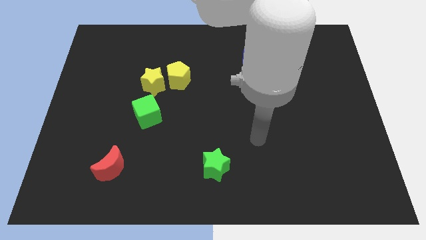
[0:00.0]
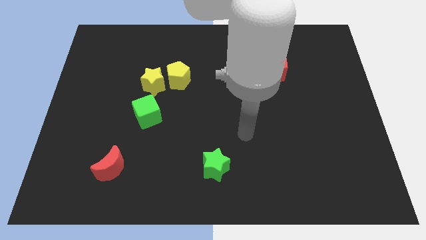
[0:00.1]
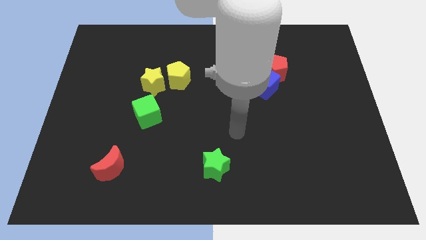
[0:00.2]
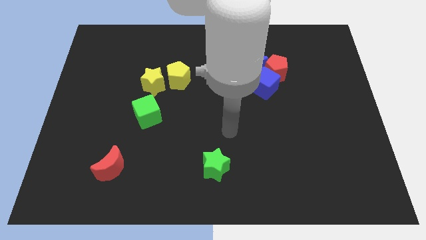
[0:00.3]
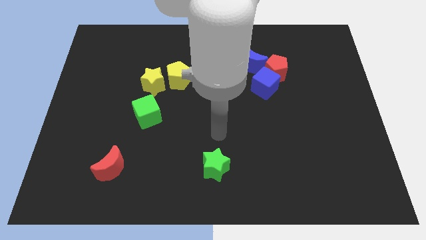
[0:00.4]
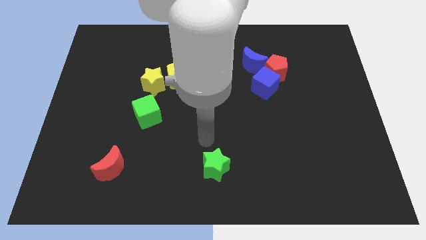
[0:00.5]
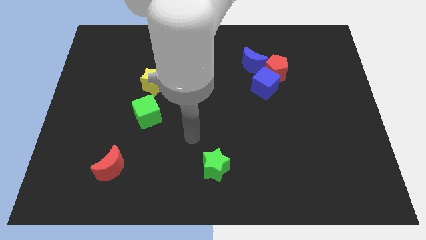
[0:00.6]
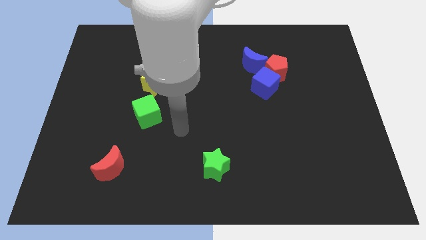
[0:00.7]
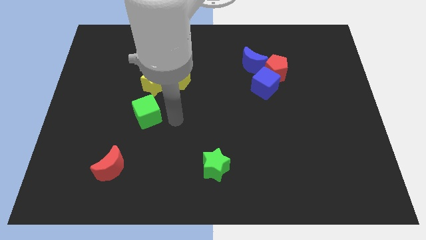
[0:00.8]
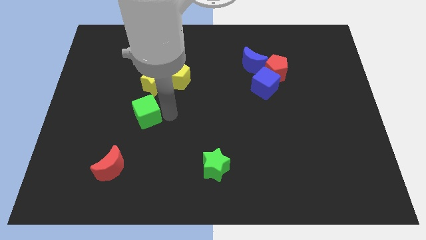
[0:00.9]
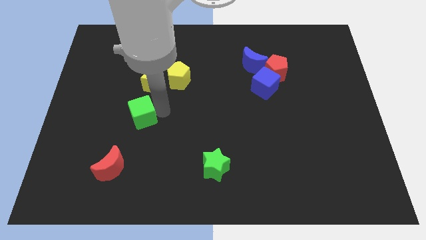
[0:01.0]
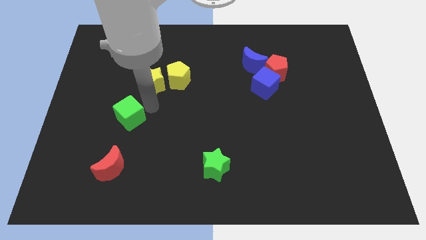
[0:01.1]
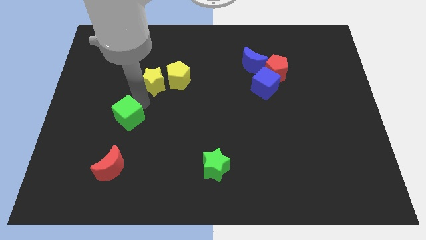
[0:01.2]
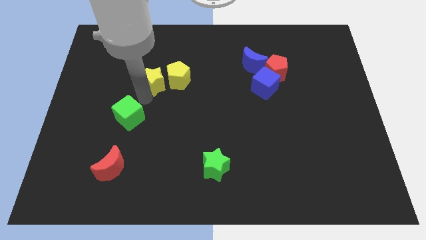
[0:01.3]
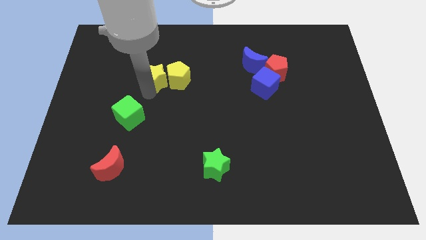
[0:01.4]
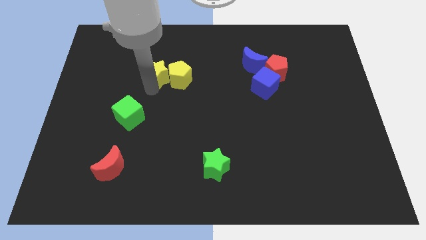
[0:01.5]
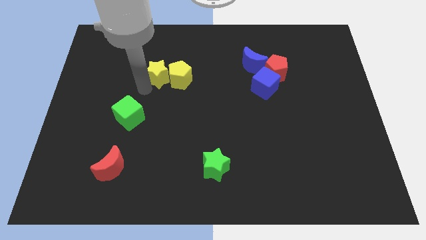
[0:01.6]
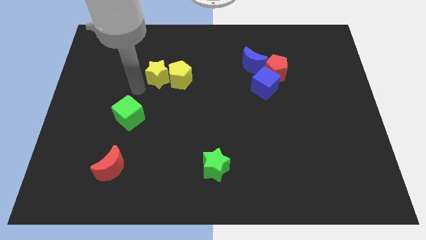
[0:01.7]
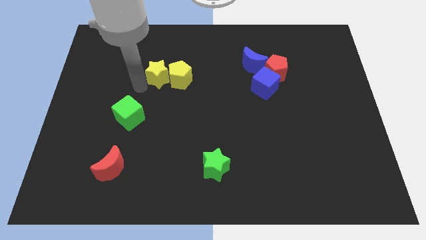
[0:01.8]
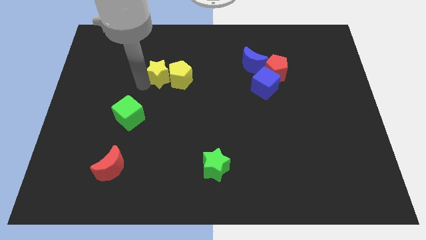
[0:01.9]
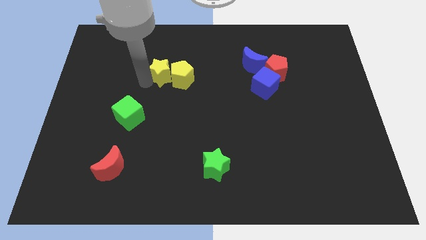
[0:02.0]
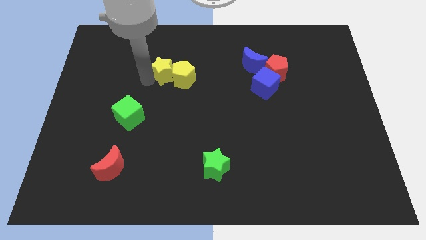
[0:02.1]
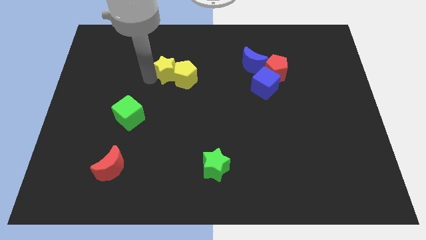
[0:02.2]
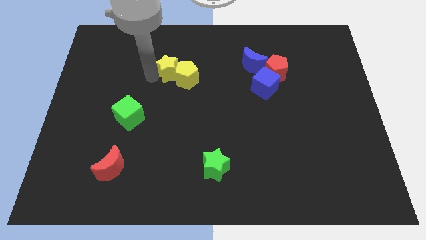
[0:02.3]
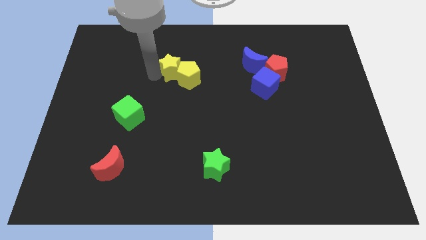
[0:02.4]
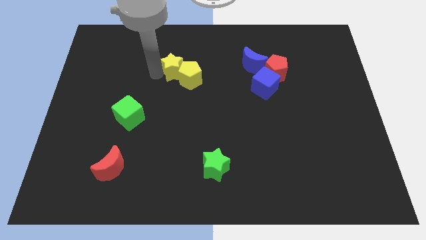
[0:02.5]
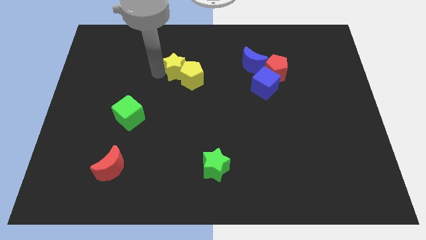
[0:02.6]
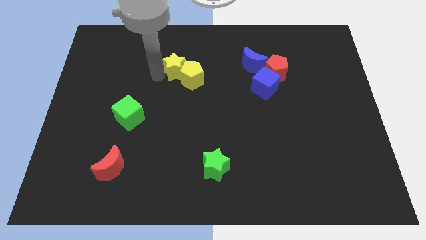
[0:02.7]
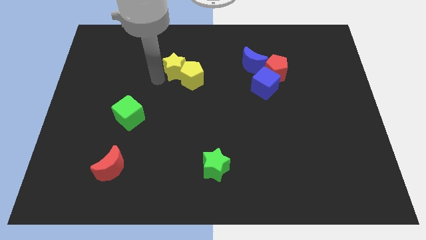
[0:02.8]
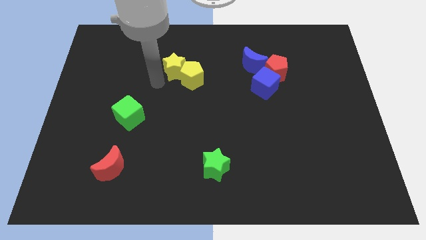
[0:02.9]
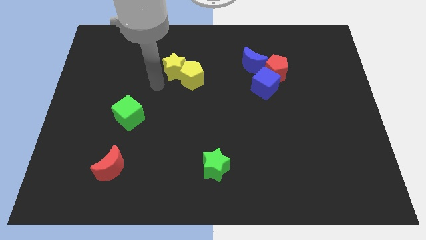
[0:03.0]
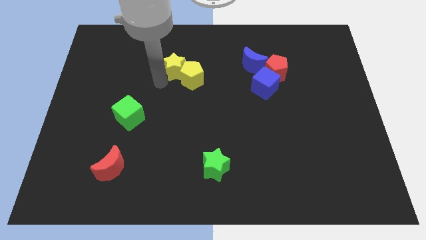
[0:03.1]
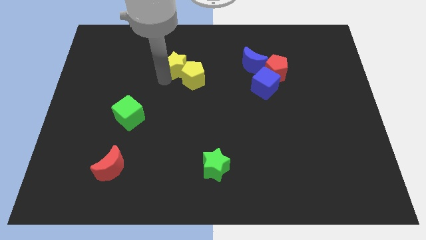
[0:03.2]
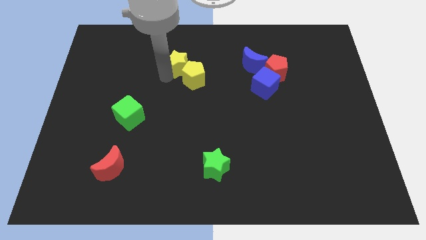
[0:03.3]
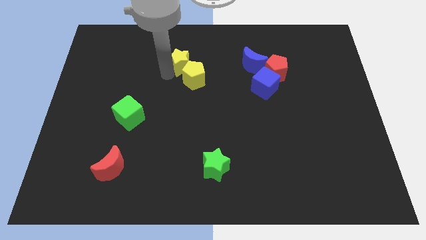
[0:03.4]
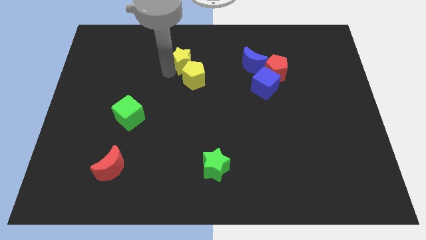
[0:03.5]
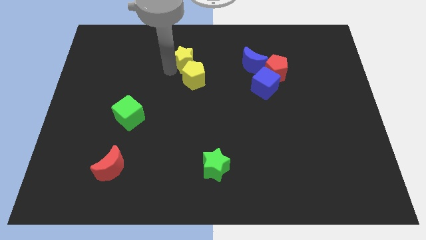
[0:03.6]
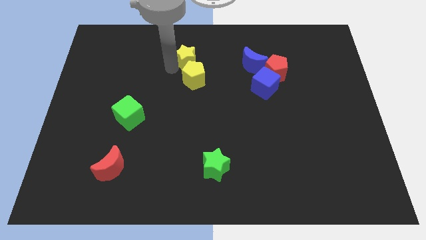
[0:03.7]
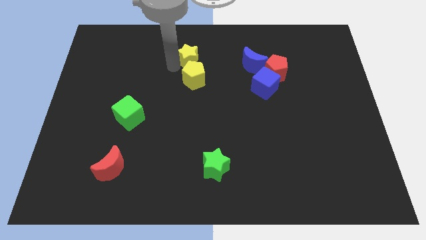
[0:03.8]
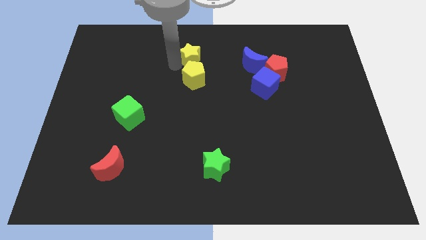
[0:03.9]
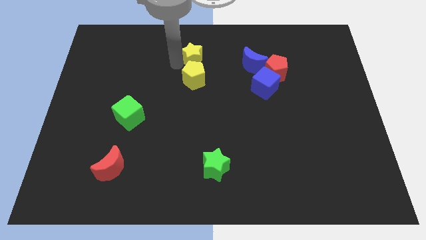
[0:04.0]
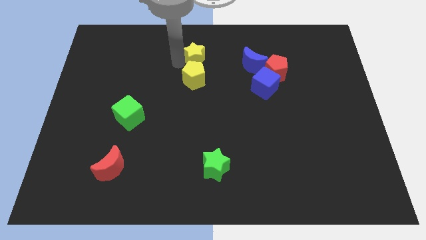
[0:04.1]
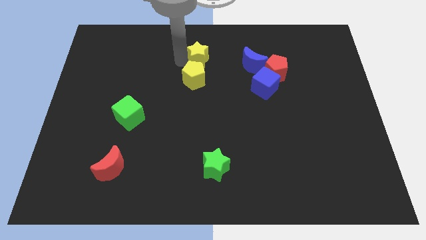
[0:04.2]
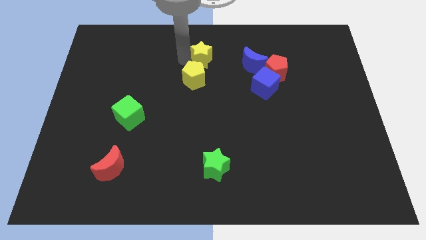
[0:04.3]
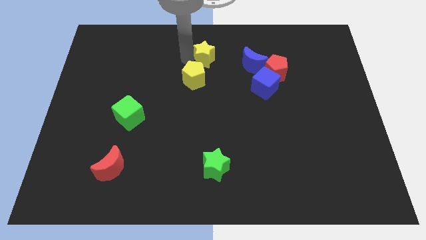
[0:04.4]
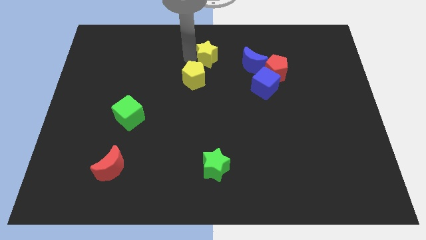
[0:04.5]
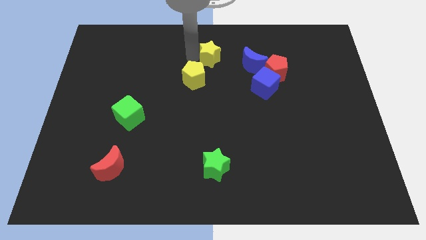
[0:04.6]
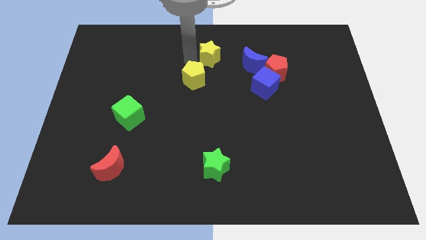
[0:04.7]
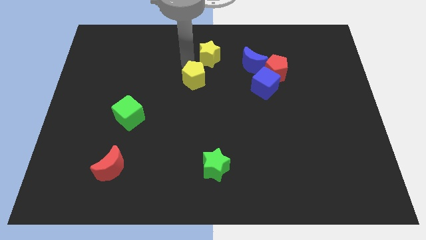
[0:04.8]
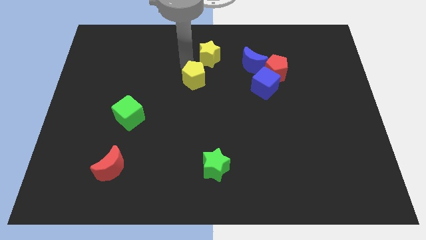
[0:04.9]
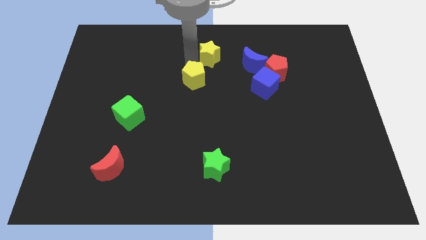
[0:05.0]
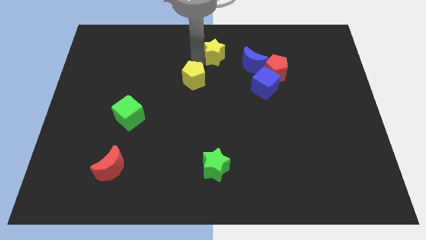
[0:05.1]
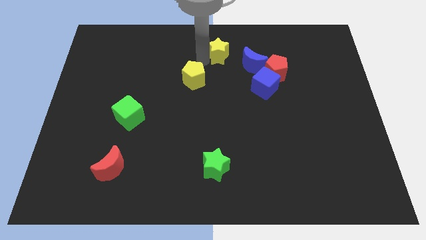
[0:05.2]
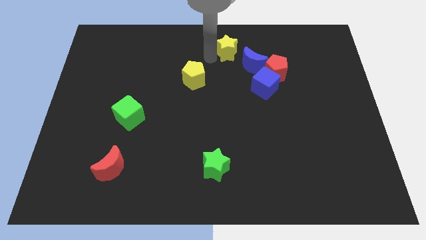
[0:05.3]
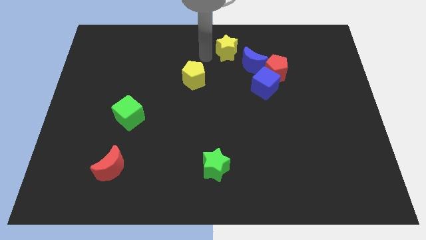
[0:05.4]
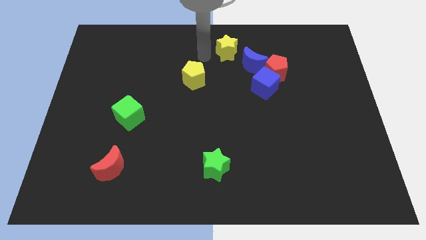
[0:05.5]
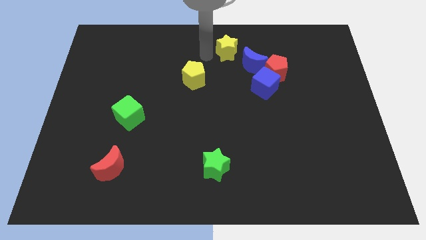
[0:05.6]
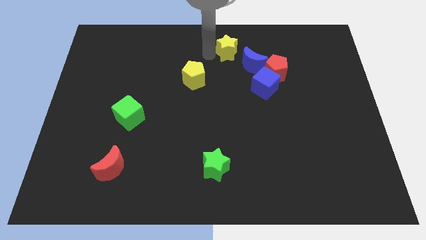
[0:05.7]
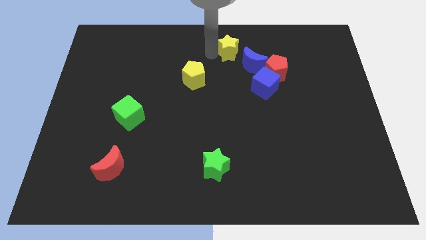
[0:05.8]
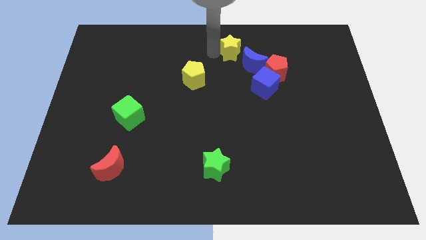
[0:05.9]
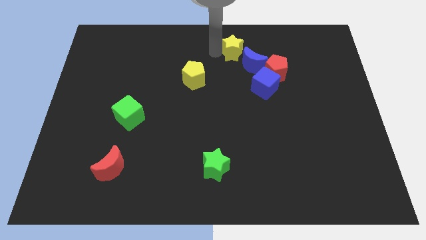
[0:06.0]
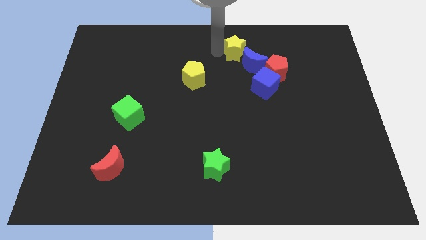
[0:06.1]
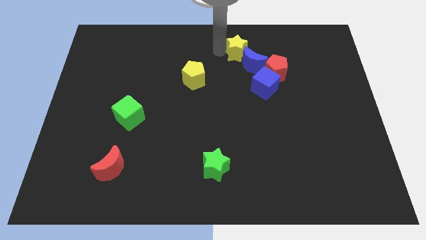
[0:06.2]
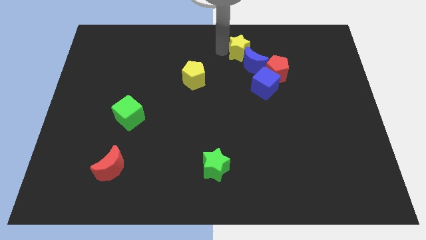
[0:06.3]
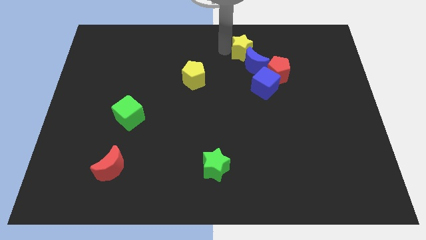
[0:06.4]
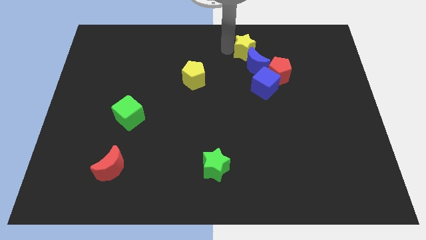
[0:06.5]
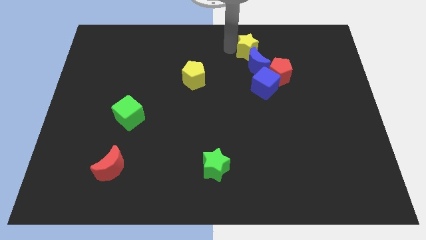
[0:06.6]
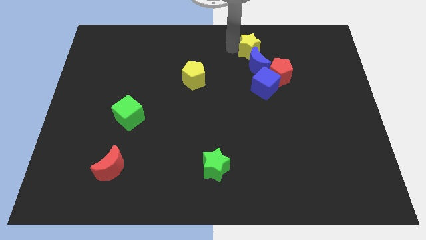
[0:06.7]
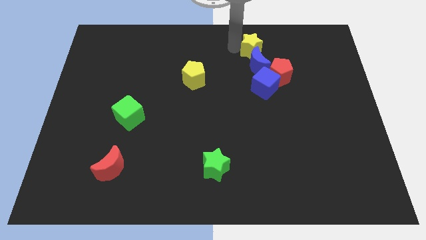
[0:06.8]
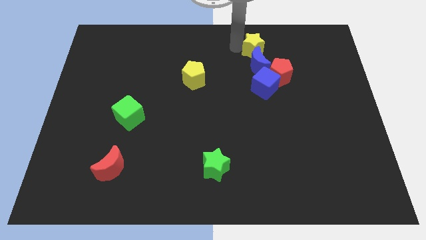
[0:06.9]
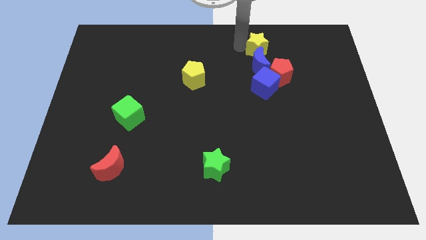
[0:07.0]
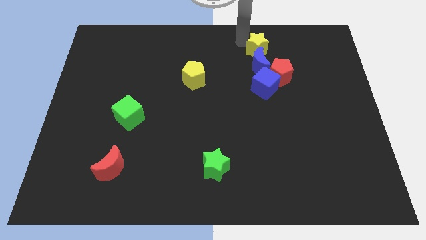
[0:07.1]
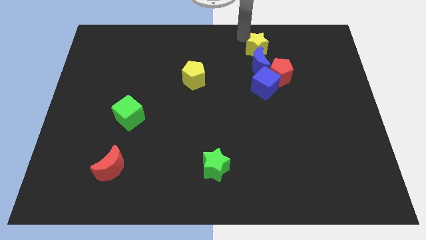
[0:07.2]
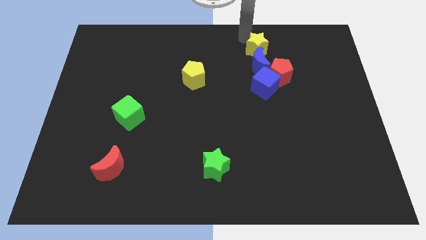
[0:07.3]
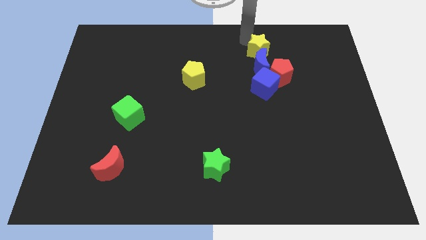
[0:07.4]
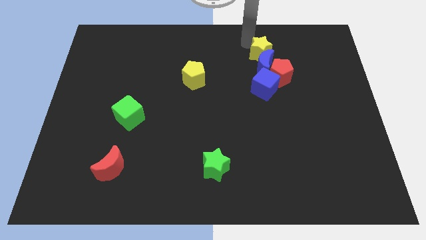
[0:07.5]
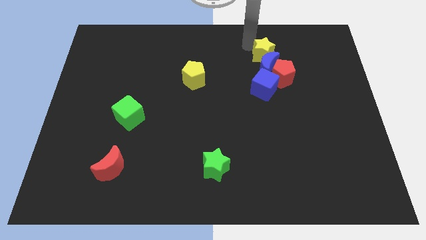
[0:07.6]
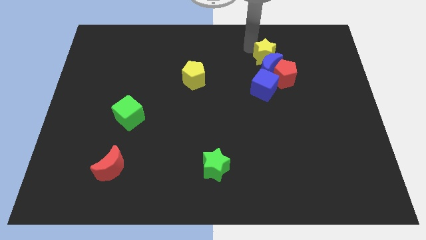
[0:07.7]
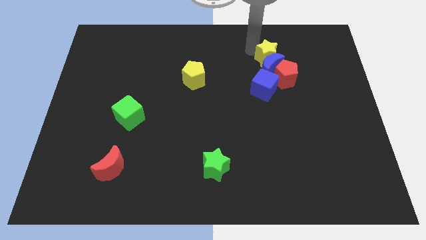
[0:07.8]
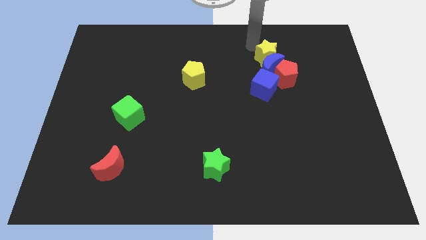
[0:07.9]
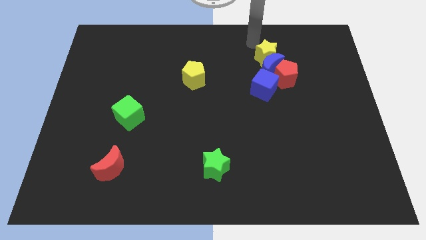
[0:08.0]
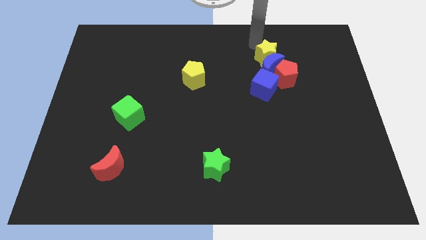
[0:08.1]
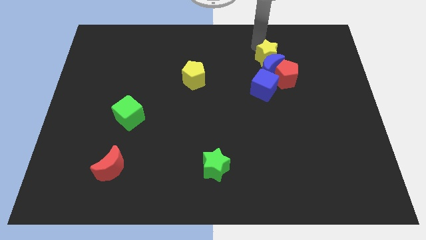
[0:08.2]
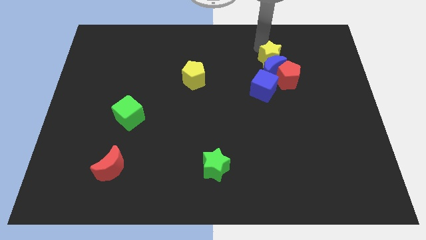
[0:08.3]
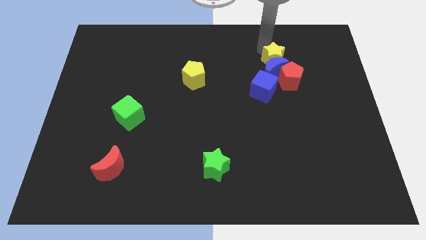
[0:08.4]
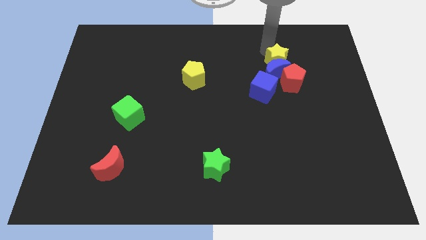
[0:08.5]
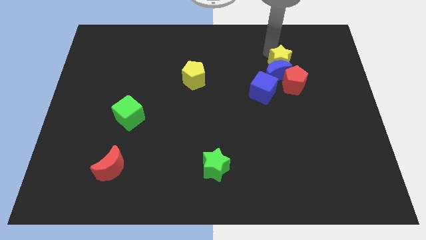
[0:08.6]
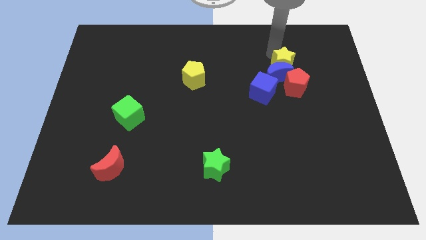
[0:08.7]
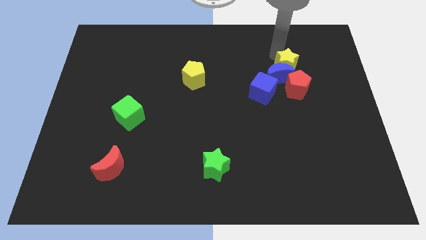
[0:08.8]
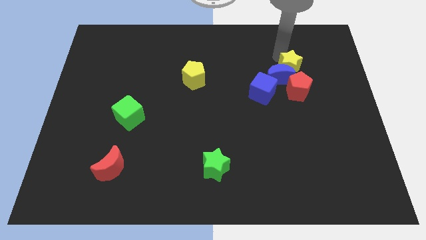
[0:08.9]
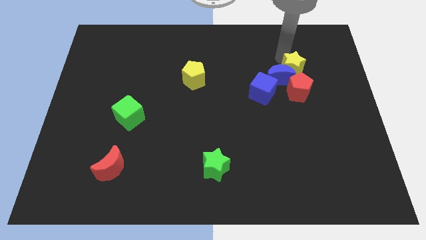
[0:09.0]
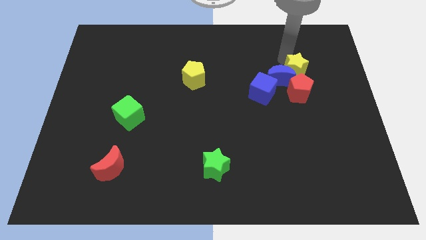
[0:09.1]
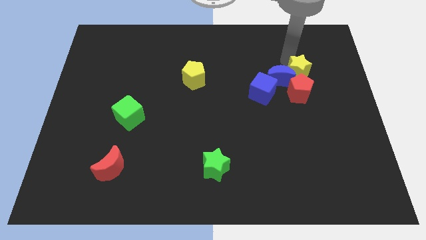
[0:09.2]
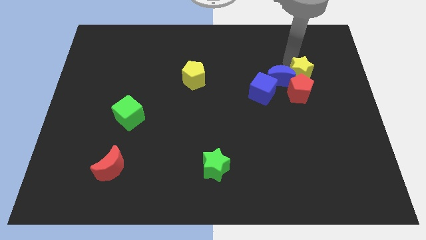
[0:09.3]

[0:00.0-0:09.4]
put the yellow star close to the red pentagon
